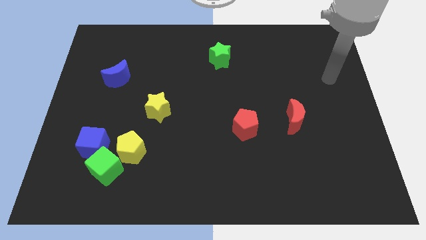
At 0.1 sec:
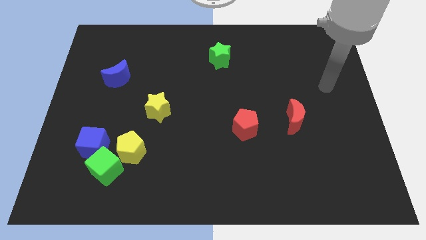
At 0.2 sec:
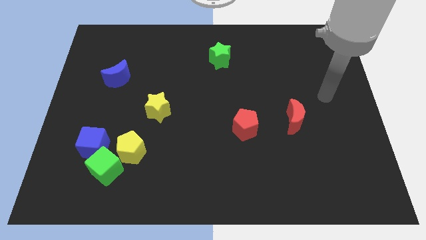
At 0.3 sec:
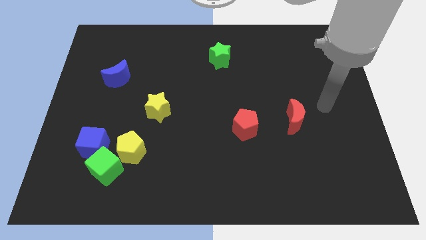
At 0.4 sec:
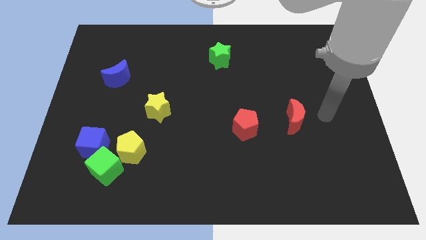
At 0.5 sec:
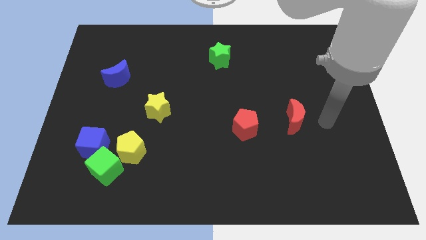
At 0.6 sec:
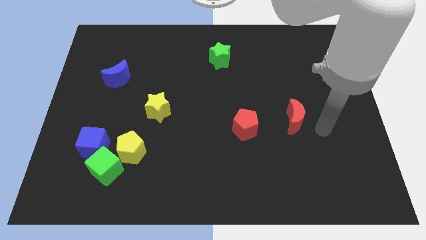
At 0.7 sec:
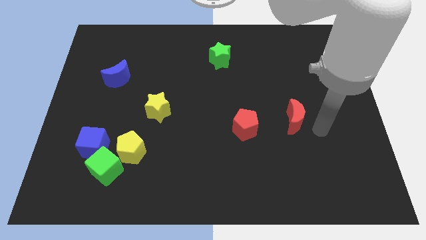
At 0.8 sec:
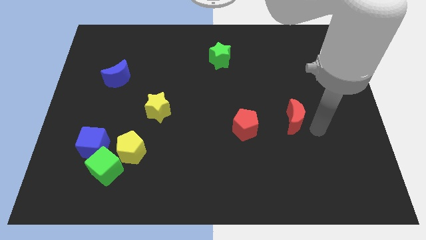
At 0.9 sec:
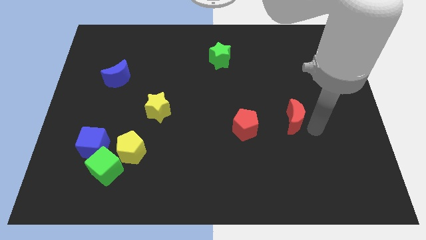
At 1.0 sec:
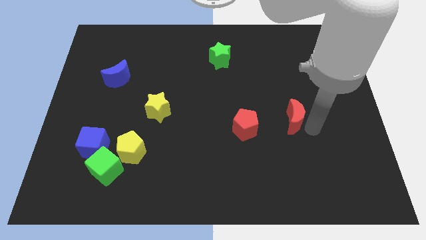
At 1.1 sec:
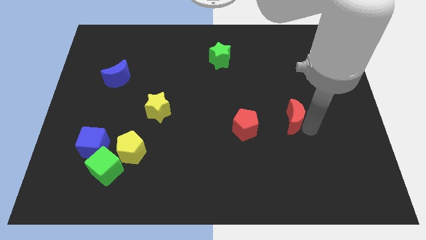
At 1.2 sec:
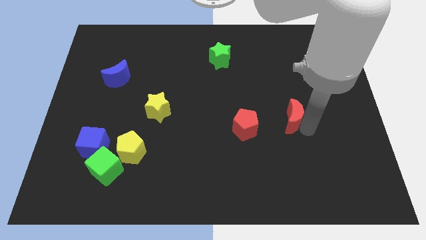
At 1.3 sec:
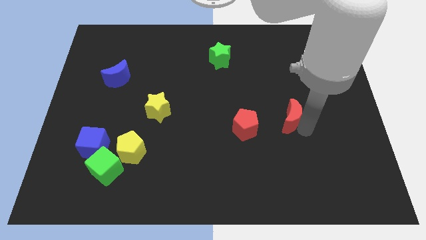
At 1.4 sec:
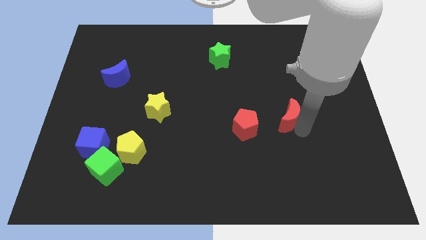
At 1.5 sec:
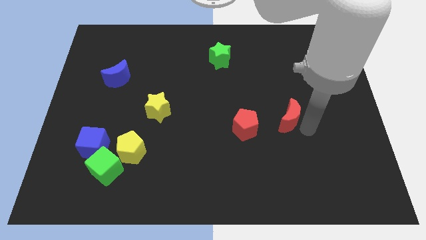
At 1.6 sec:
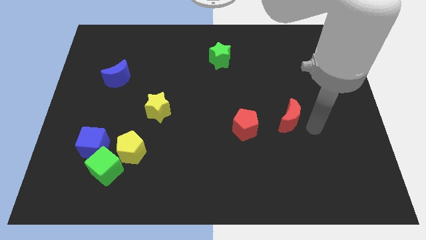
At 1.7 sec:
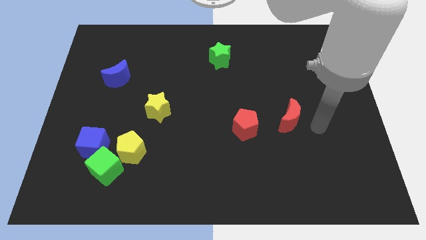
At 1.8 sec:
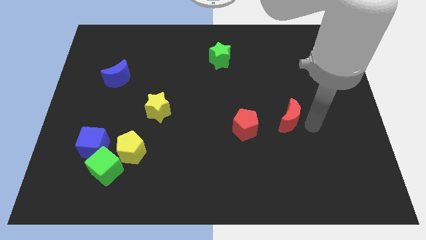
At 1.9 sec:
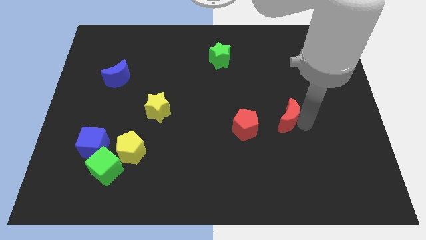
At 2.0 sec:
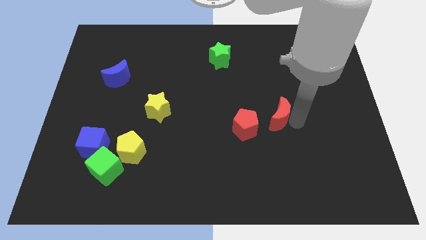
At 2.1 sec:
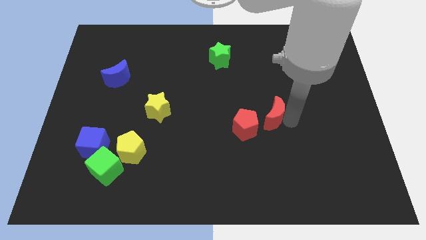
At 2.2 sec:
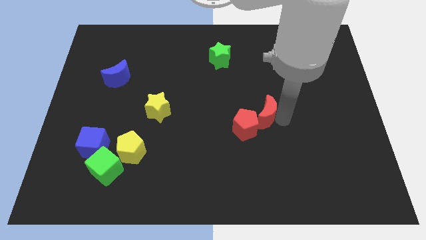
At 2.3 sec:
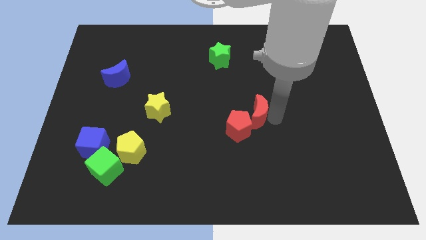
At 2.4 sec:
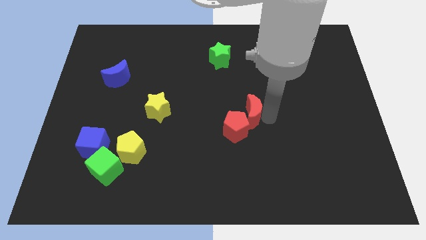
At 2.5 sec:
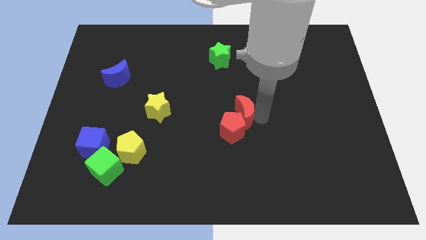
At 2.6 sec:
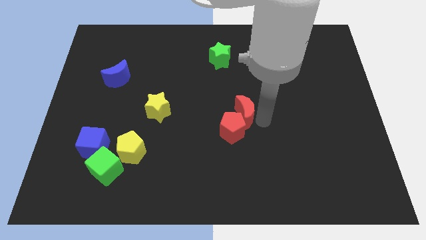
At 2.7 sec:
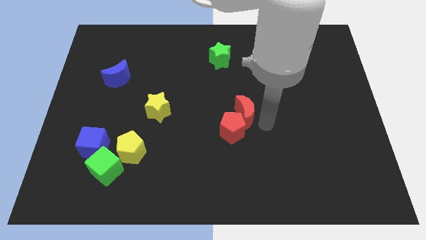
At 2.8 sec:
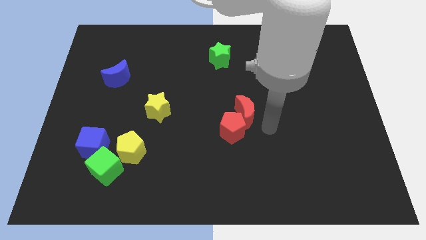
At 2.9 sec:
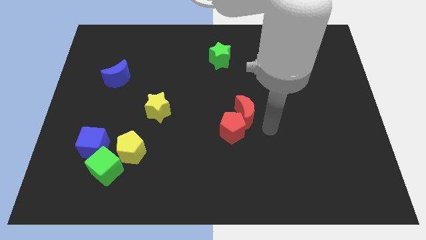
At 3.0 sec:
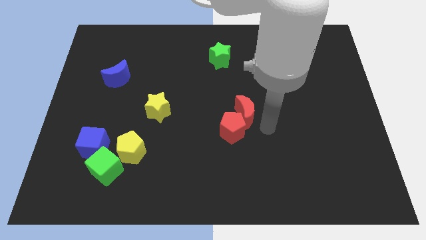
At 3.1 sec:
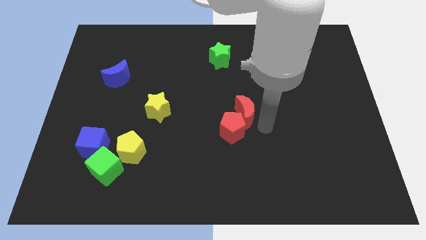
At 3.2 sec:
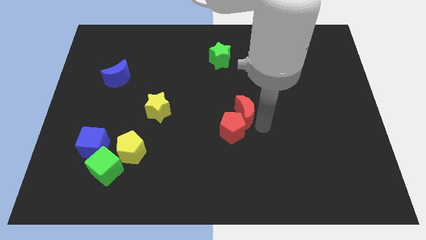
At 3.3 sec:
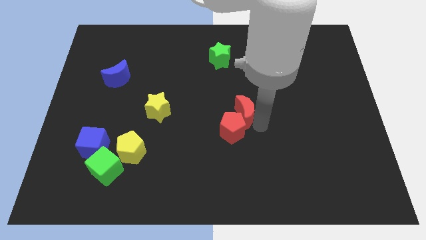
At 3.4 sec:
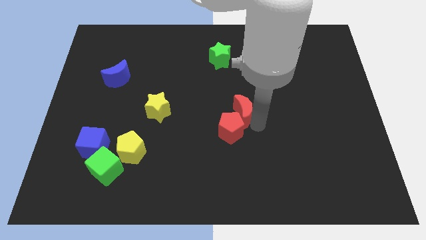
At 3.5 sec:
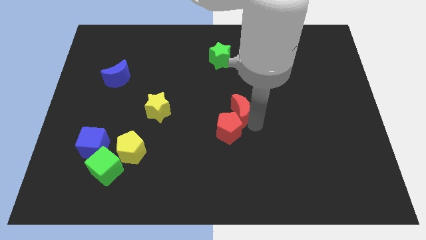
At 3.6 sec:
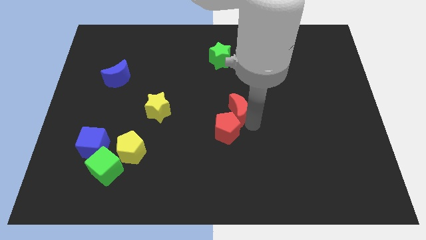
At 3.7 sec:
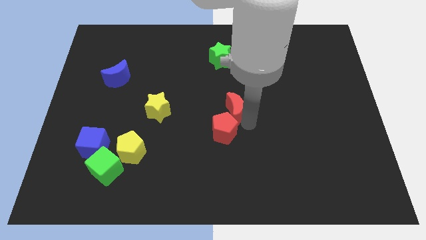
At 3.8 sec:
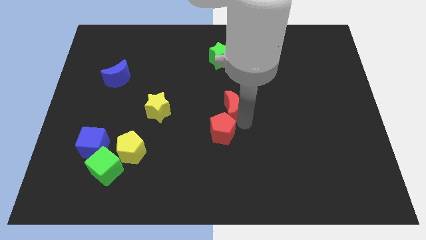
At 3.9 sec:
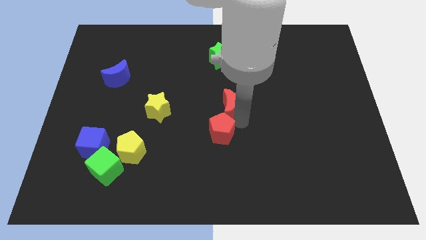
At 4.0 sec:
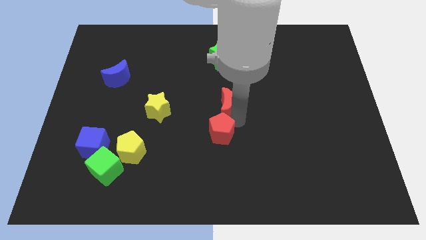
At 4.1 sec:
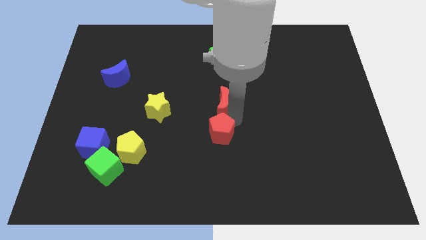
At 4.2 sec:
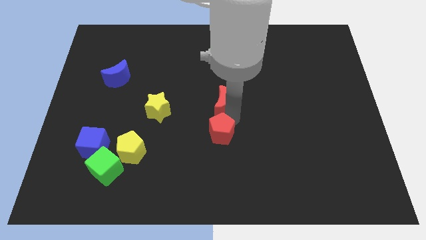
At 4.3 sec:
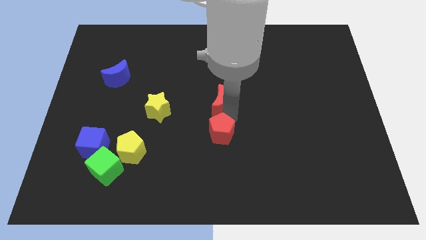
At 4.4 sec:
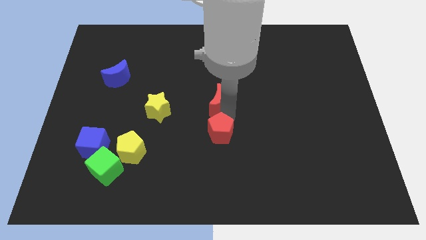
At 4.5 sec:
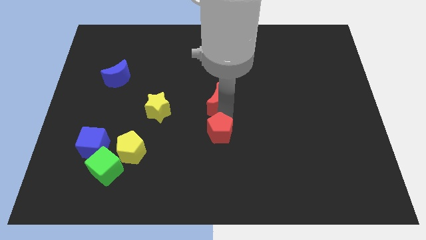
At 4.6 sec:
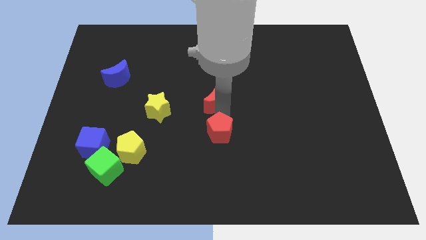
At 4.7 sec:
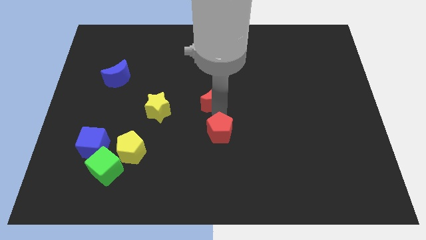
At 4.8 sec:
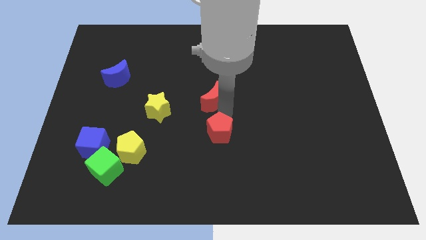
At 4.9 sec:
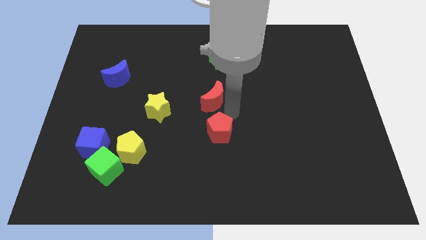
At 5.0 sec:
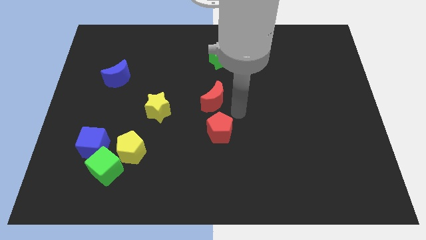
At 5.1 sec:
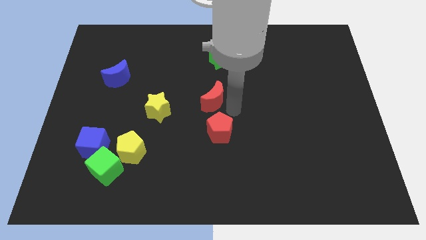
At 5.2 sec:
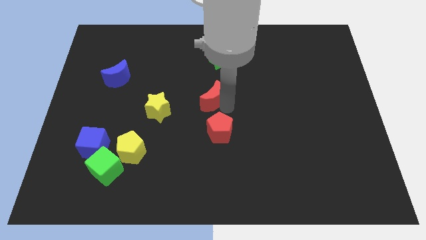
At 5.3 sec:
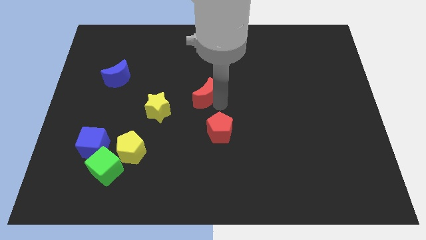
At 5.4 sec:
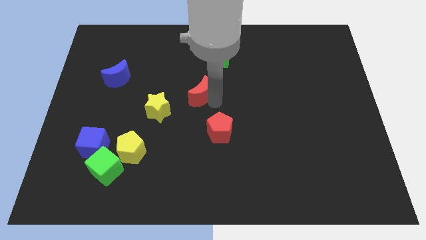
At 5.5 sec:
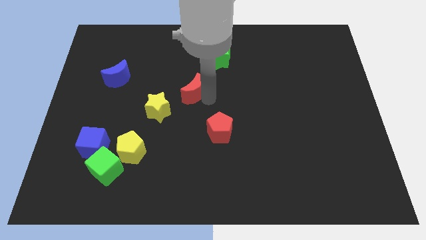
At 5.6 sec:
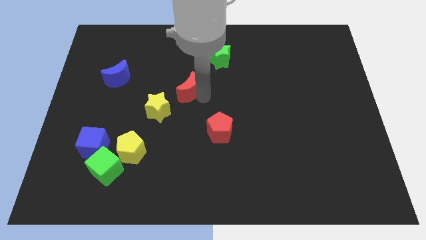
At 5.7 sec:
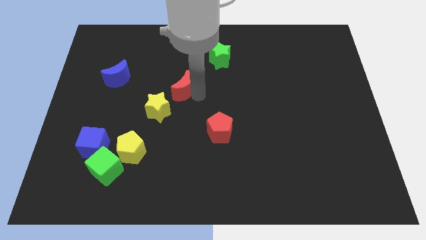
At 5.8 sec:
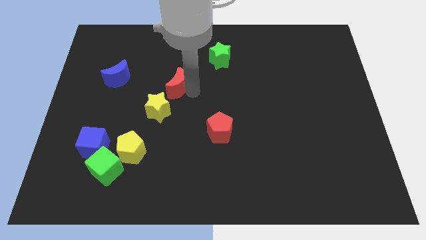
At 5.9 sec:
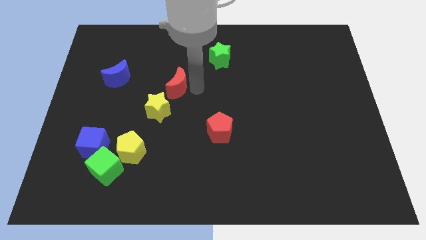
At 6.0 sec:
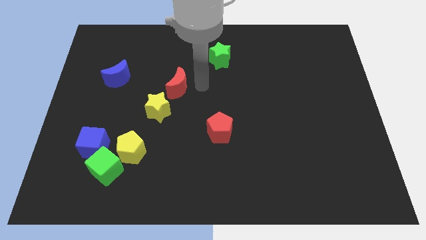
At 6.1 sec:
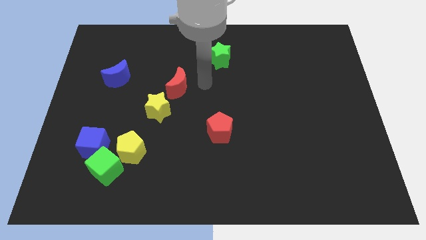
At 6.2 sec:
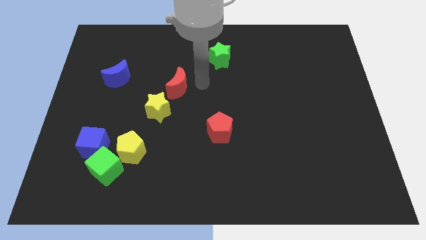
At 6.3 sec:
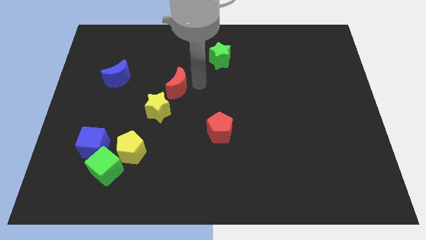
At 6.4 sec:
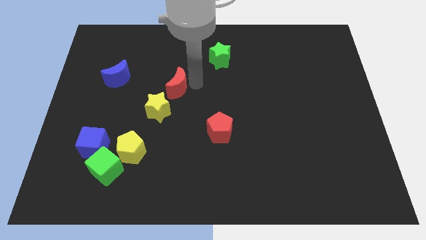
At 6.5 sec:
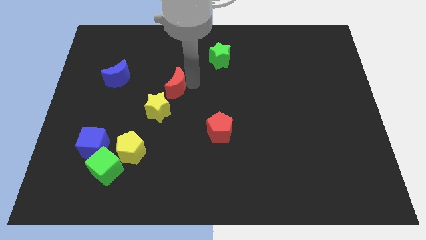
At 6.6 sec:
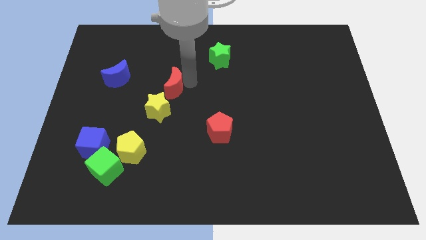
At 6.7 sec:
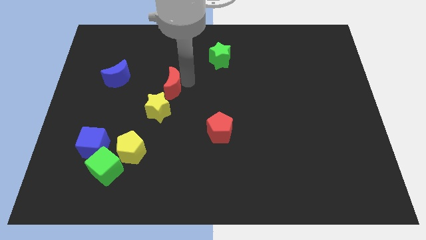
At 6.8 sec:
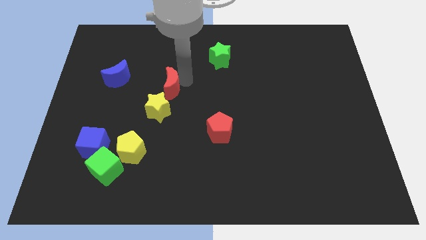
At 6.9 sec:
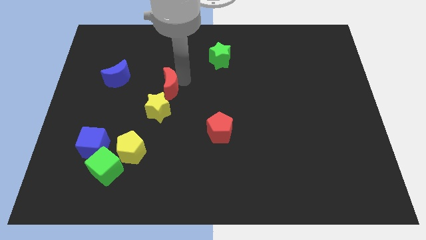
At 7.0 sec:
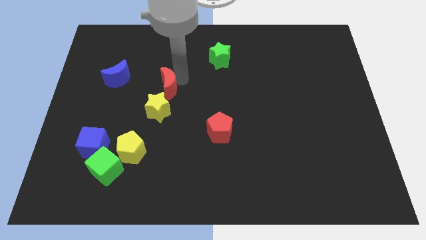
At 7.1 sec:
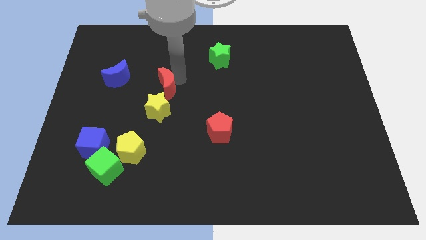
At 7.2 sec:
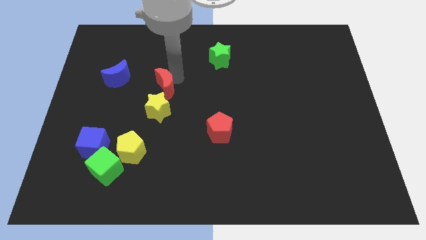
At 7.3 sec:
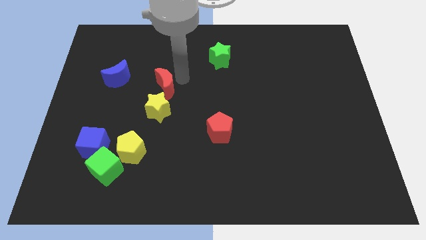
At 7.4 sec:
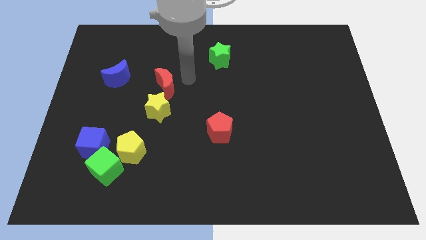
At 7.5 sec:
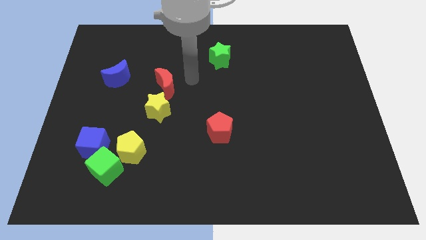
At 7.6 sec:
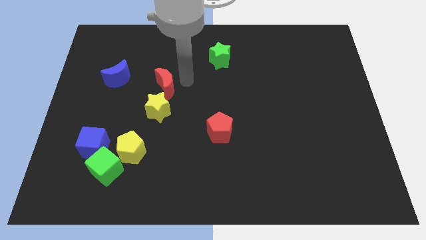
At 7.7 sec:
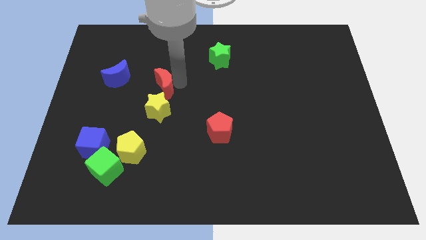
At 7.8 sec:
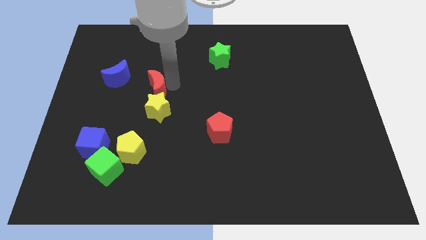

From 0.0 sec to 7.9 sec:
move the red moon to the top left of the yellow star
